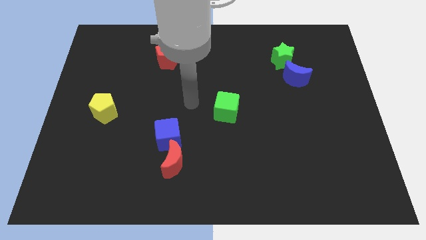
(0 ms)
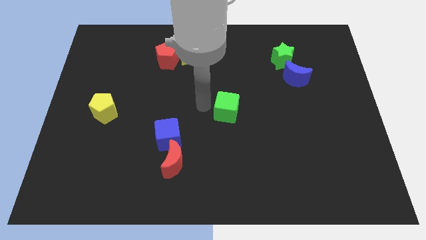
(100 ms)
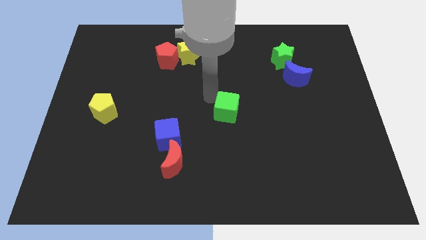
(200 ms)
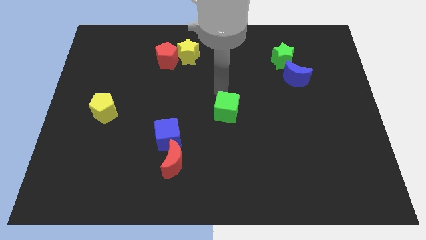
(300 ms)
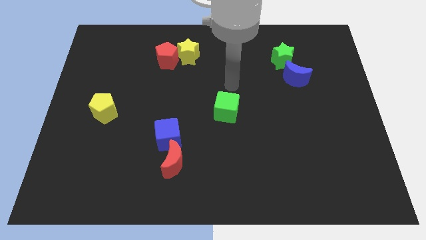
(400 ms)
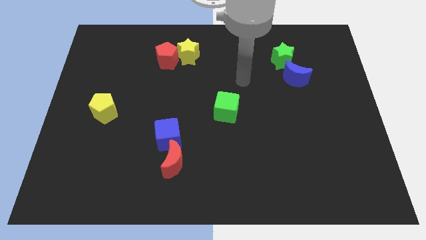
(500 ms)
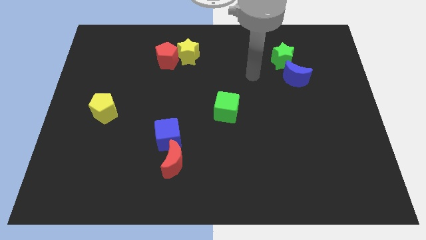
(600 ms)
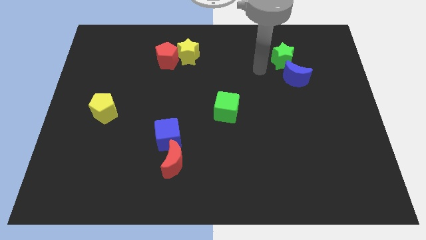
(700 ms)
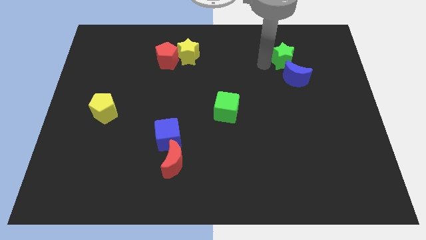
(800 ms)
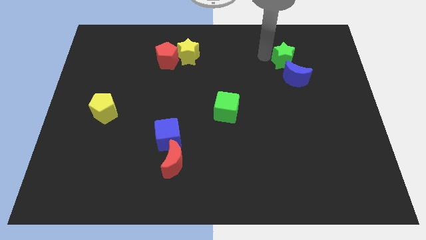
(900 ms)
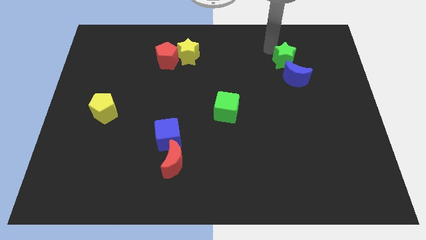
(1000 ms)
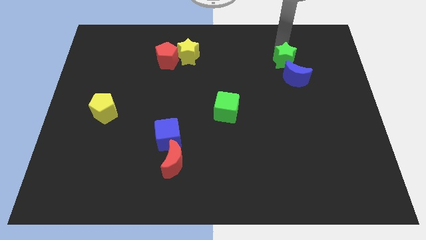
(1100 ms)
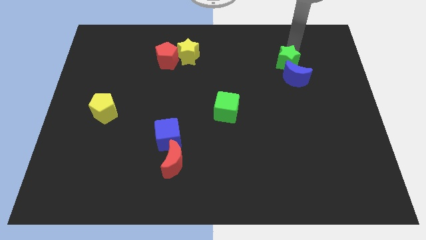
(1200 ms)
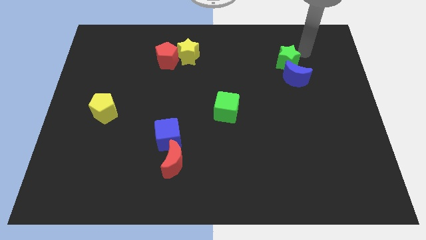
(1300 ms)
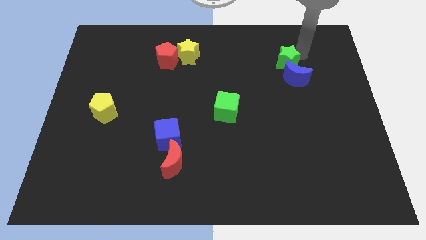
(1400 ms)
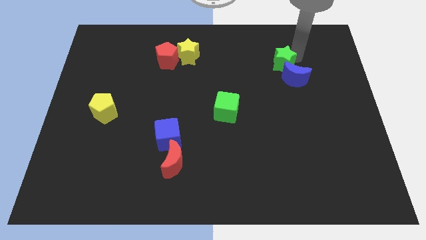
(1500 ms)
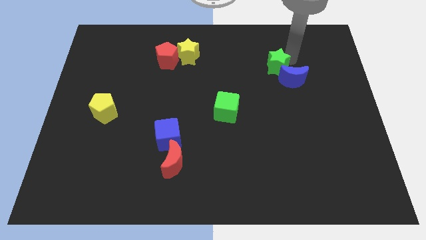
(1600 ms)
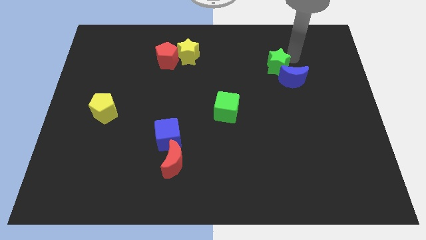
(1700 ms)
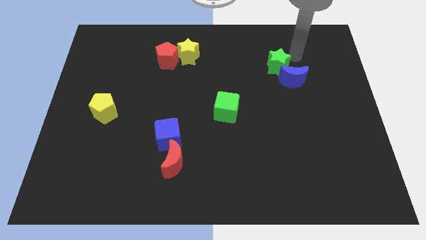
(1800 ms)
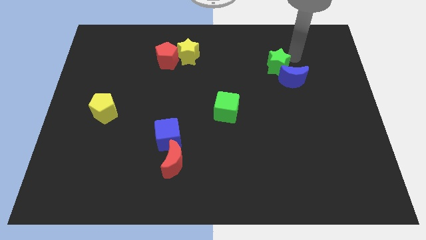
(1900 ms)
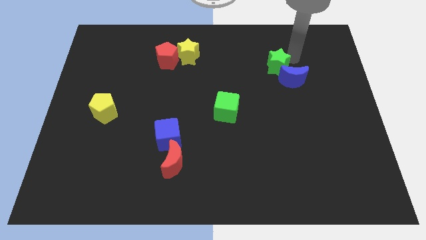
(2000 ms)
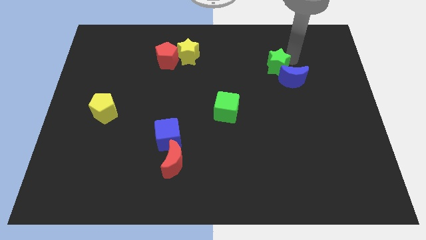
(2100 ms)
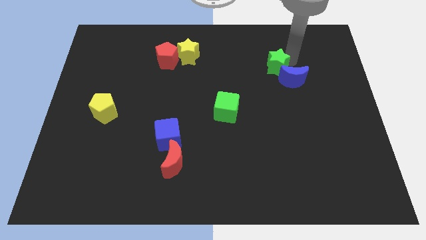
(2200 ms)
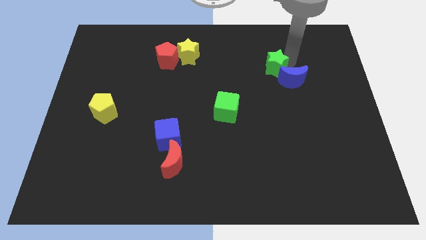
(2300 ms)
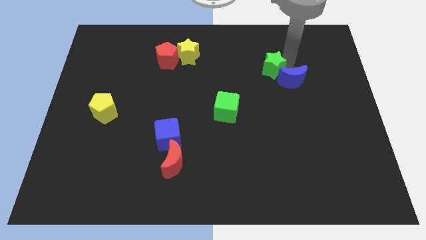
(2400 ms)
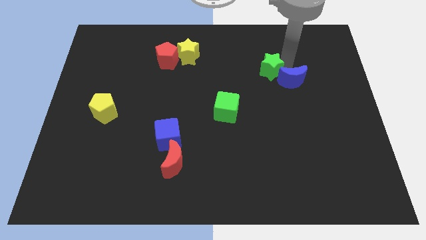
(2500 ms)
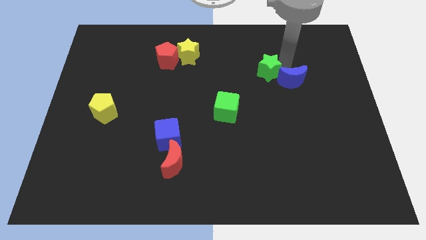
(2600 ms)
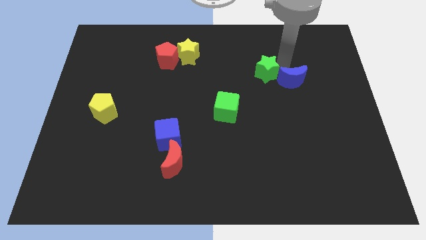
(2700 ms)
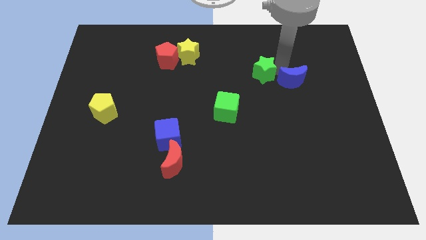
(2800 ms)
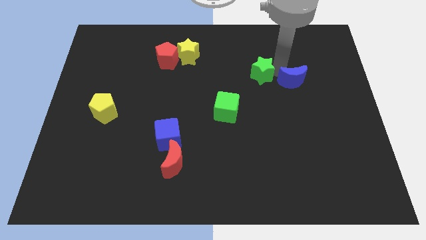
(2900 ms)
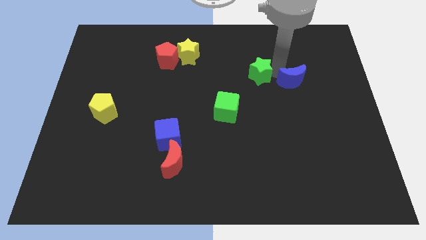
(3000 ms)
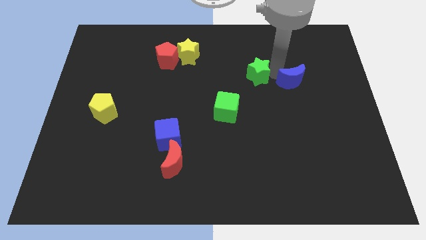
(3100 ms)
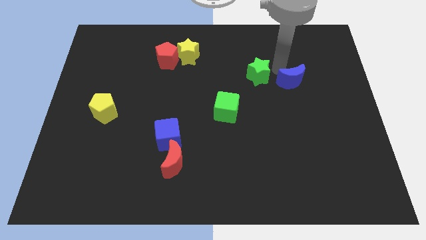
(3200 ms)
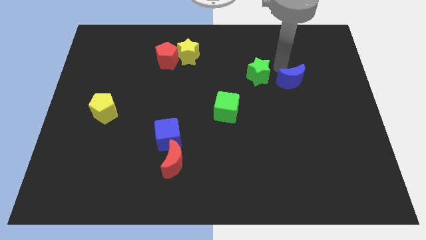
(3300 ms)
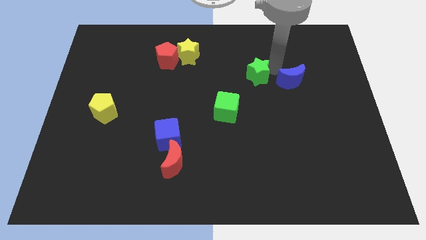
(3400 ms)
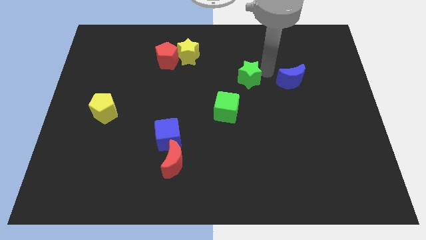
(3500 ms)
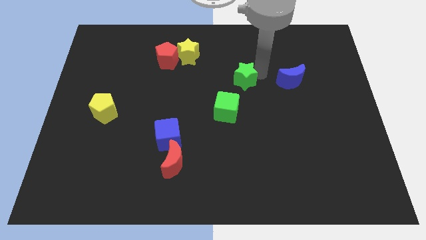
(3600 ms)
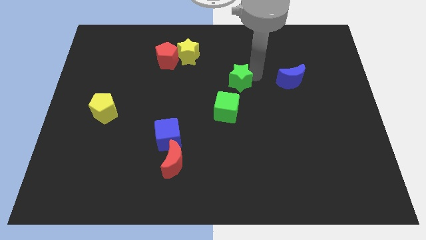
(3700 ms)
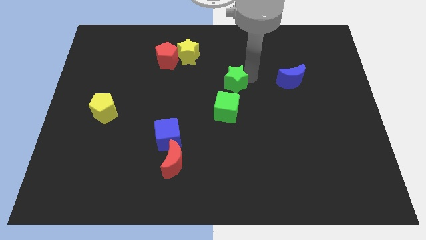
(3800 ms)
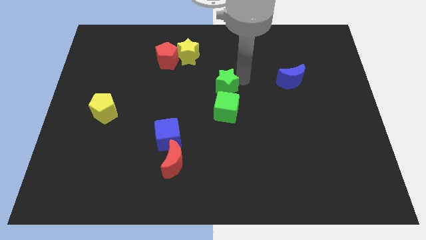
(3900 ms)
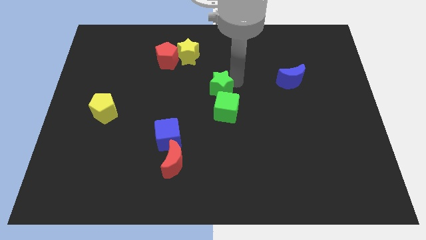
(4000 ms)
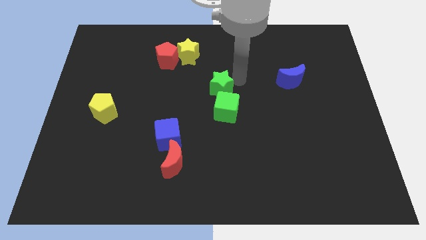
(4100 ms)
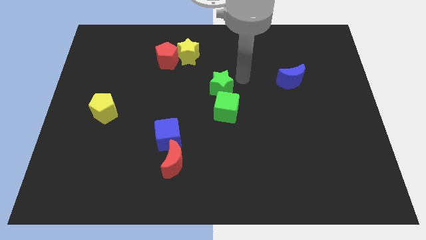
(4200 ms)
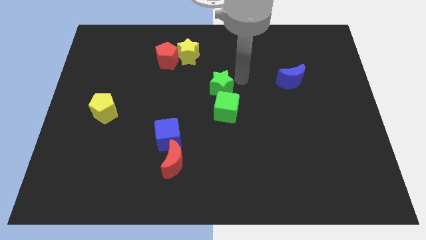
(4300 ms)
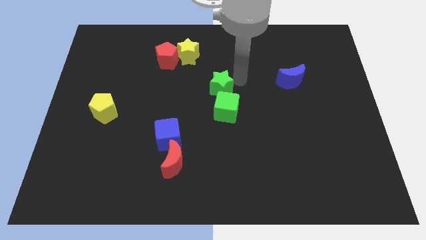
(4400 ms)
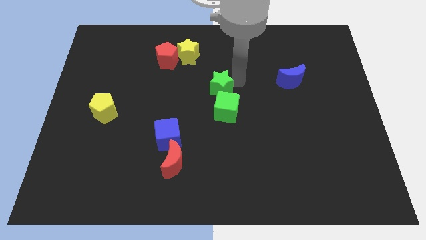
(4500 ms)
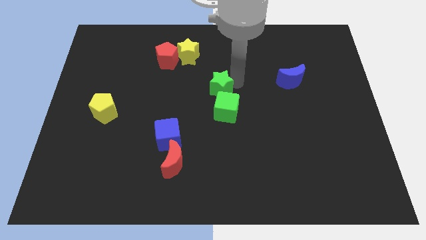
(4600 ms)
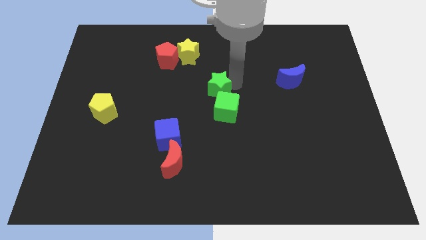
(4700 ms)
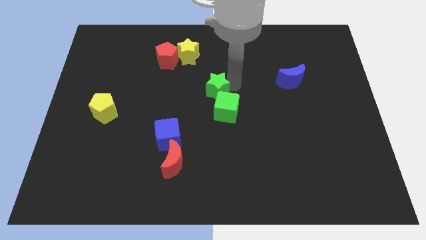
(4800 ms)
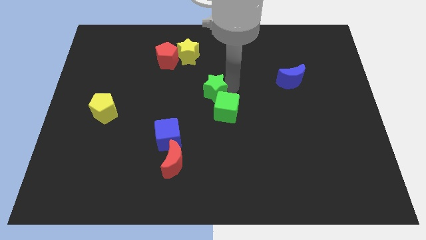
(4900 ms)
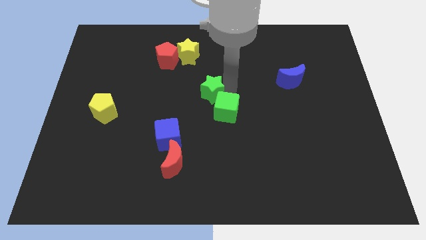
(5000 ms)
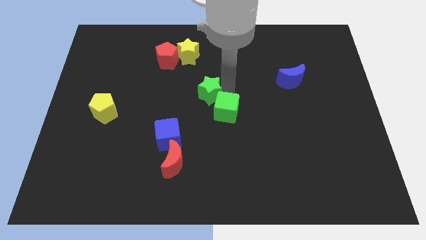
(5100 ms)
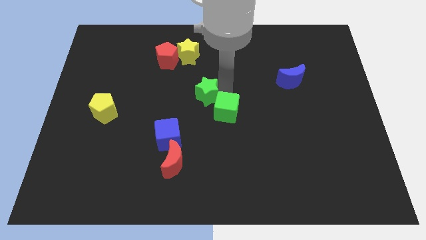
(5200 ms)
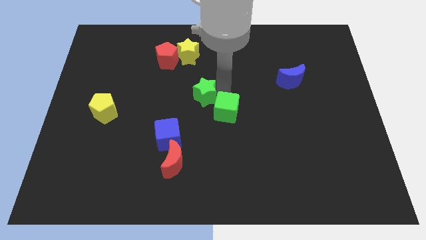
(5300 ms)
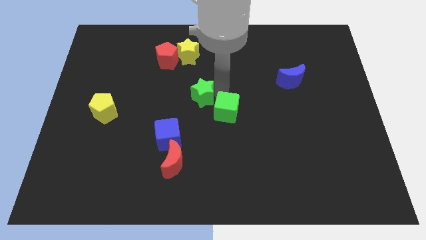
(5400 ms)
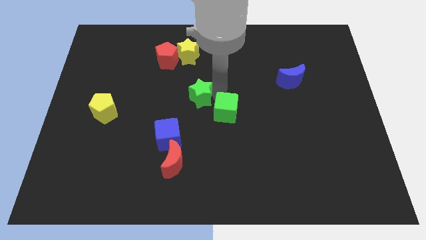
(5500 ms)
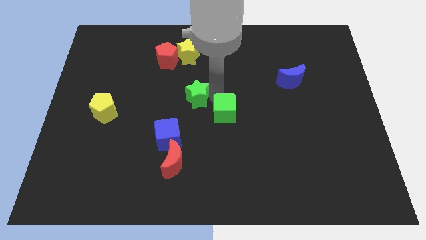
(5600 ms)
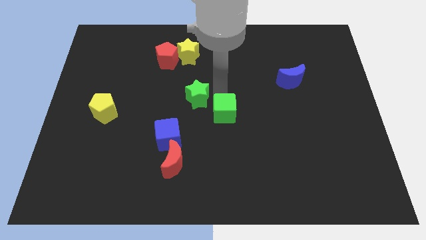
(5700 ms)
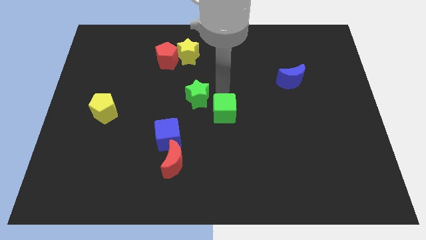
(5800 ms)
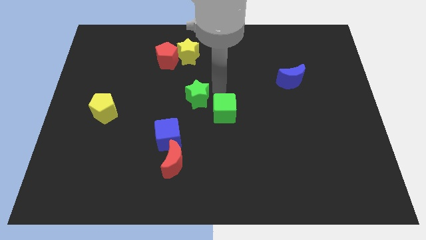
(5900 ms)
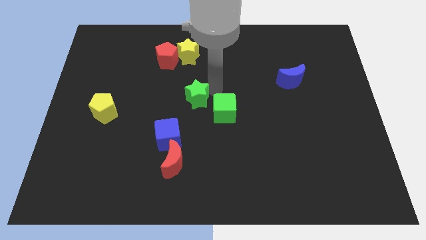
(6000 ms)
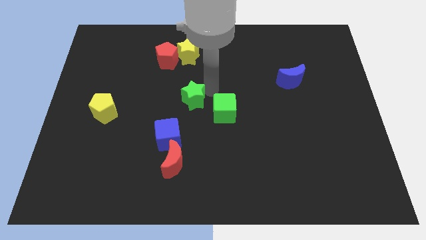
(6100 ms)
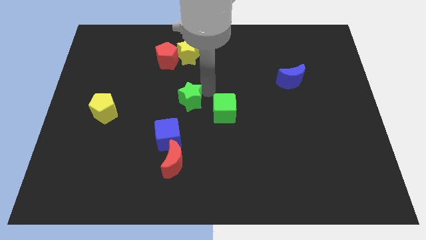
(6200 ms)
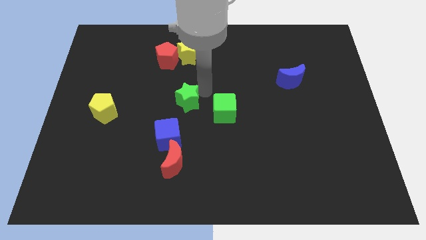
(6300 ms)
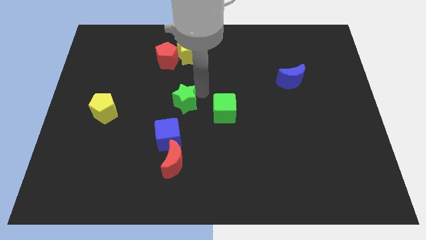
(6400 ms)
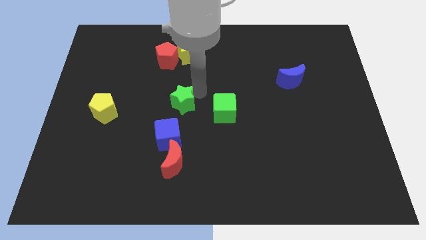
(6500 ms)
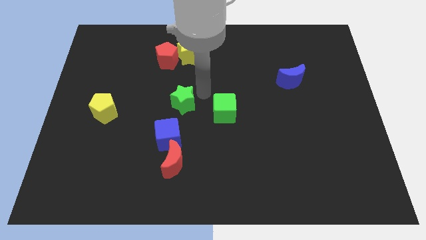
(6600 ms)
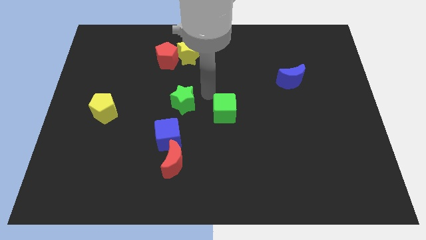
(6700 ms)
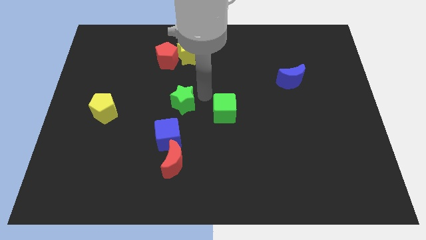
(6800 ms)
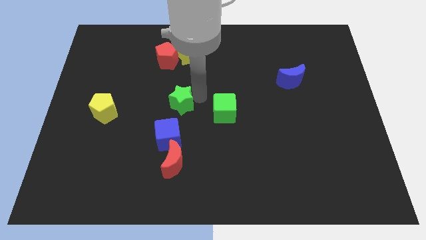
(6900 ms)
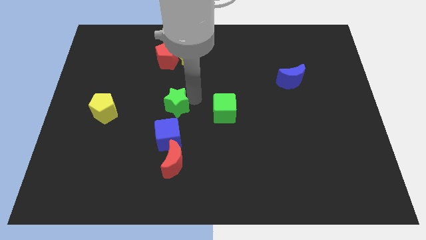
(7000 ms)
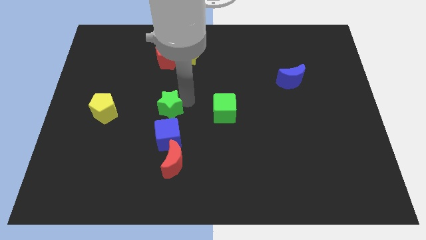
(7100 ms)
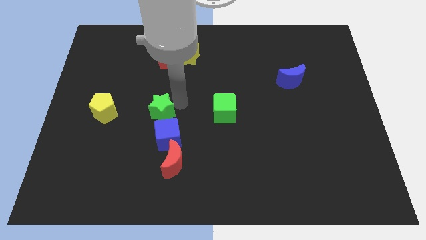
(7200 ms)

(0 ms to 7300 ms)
move the green star to the top left side of the blue cube
